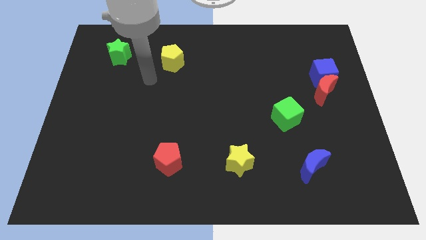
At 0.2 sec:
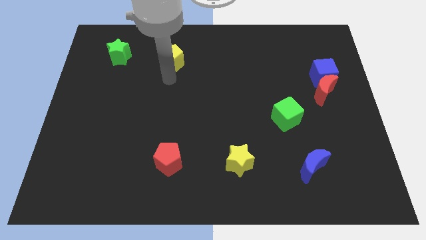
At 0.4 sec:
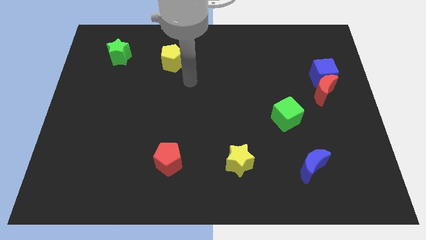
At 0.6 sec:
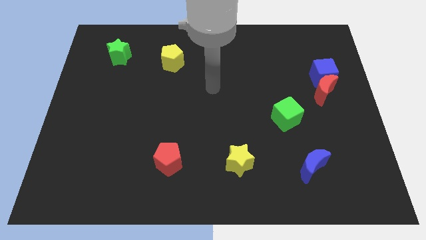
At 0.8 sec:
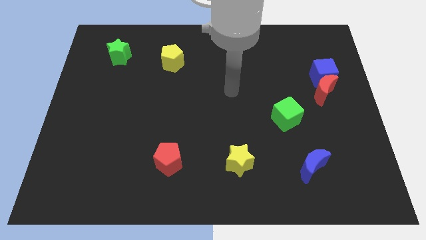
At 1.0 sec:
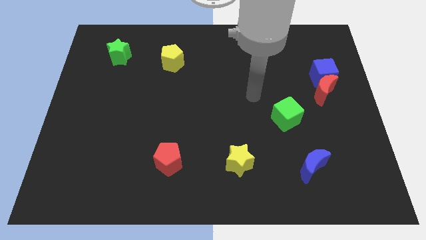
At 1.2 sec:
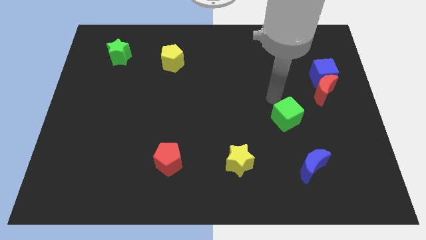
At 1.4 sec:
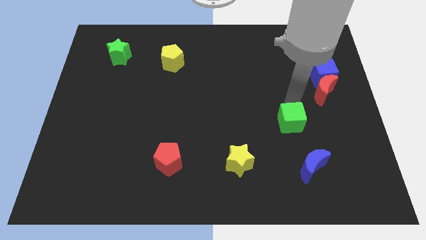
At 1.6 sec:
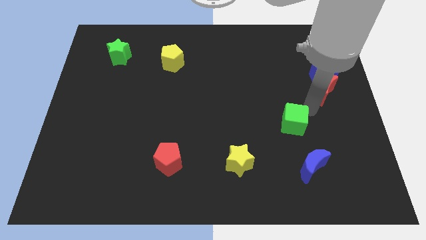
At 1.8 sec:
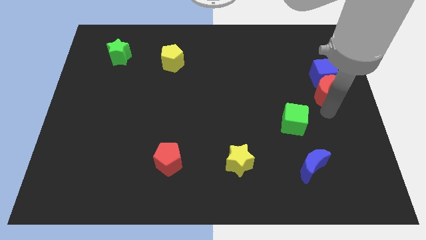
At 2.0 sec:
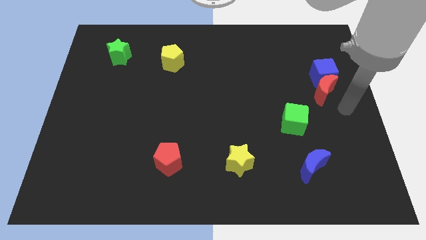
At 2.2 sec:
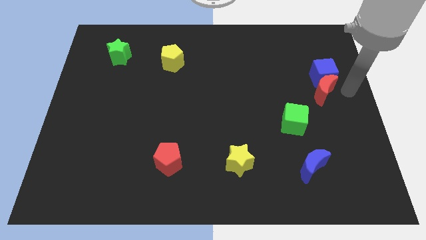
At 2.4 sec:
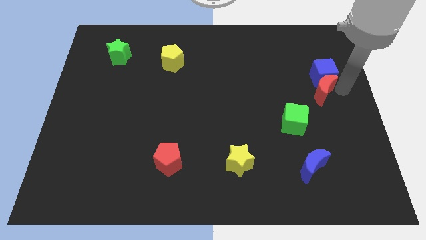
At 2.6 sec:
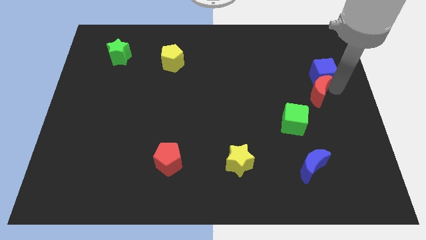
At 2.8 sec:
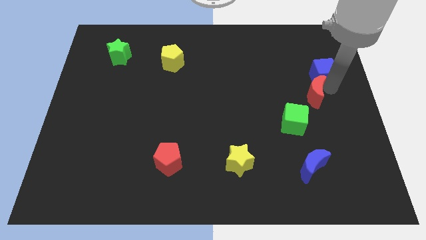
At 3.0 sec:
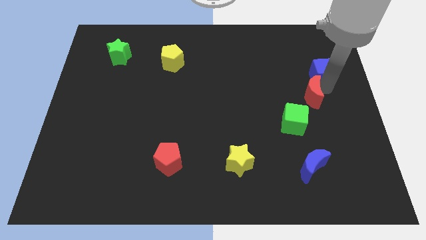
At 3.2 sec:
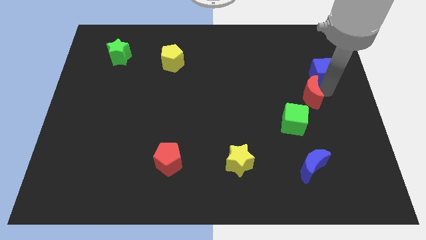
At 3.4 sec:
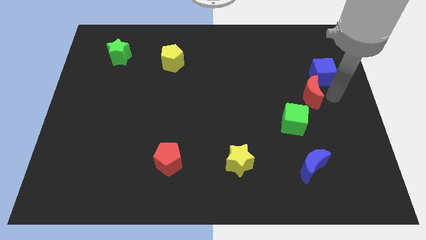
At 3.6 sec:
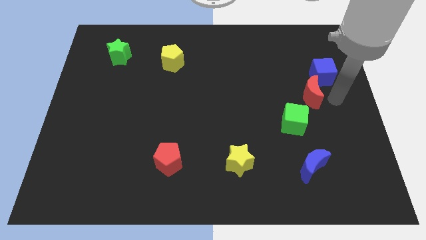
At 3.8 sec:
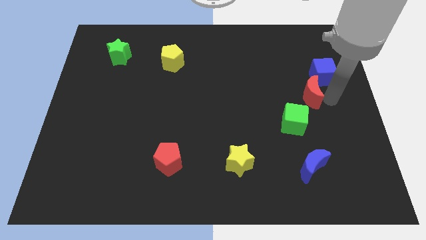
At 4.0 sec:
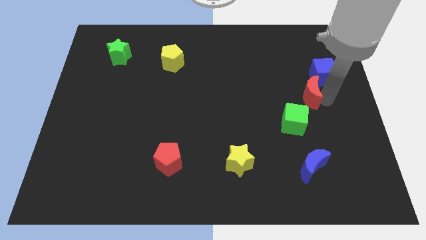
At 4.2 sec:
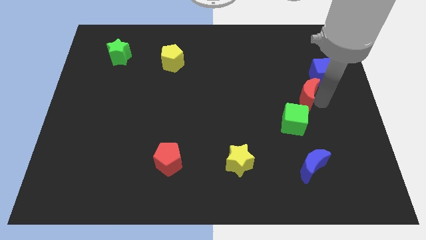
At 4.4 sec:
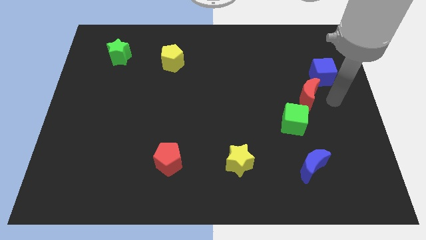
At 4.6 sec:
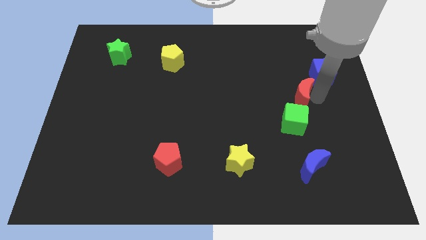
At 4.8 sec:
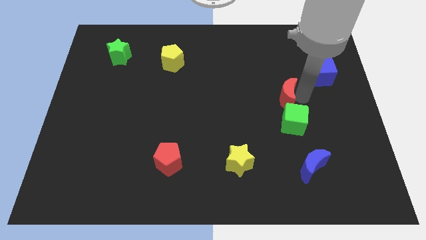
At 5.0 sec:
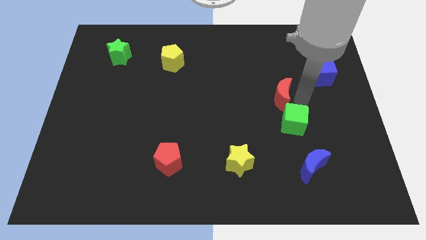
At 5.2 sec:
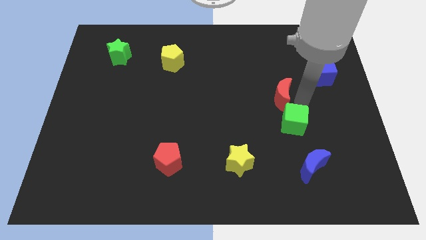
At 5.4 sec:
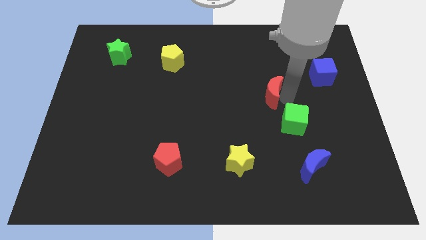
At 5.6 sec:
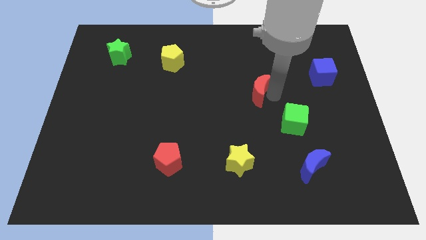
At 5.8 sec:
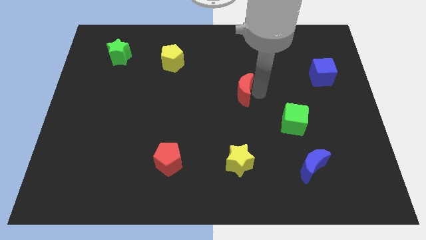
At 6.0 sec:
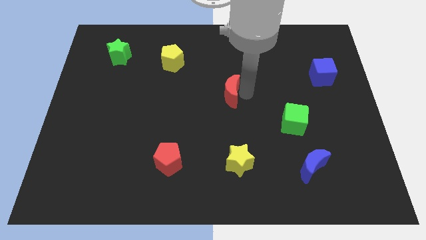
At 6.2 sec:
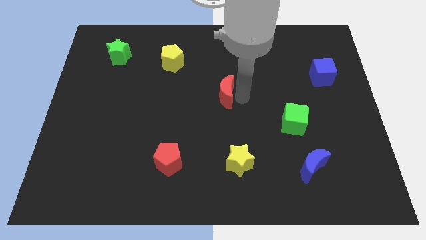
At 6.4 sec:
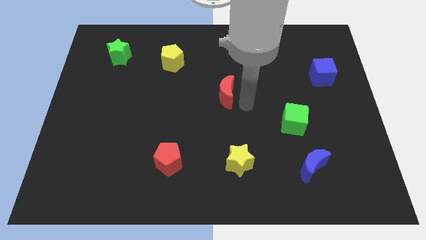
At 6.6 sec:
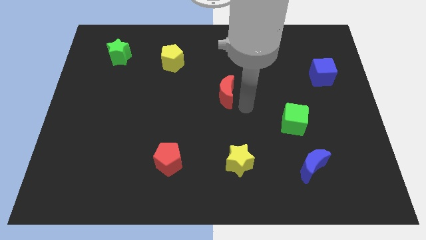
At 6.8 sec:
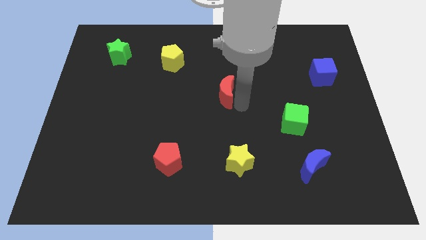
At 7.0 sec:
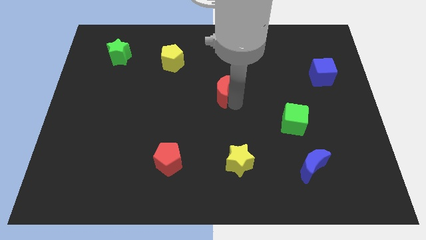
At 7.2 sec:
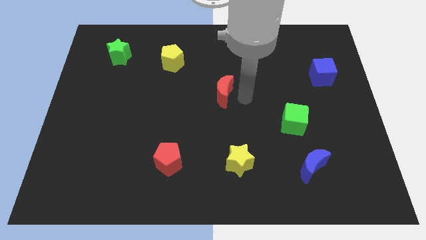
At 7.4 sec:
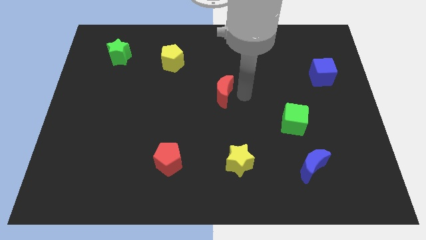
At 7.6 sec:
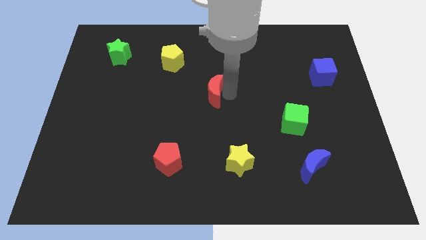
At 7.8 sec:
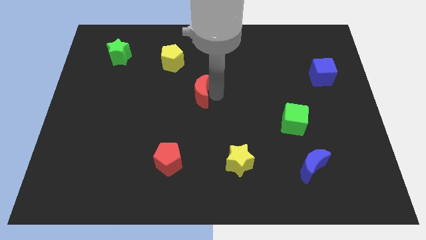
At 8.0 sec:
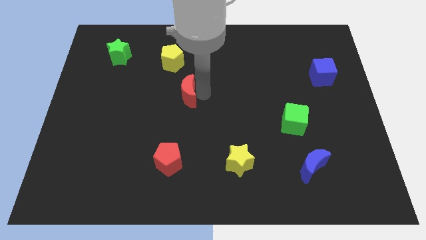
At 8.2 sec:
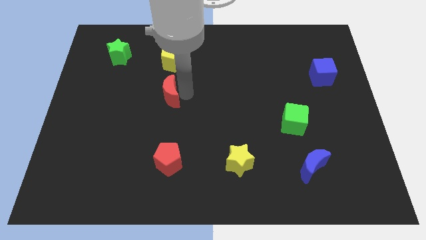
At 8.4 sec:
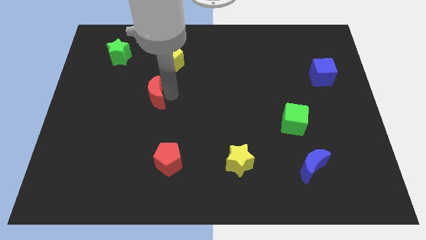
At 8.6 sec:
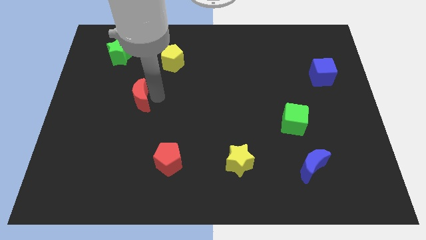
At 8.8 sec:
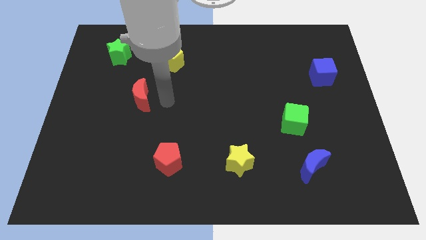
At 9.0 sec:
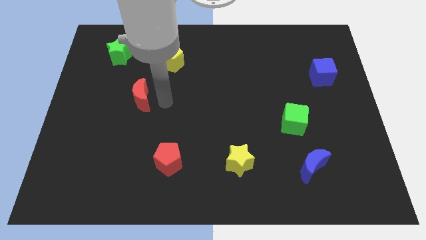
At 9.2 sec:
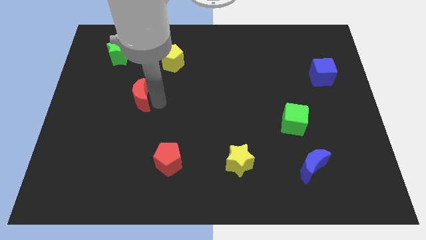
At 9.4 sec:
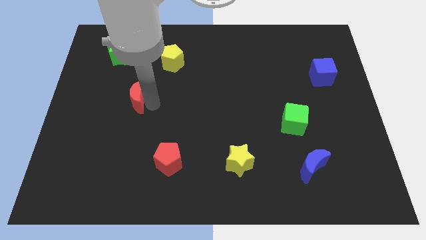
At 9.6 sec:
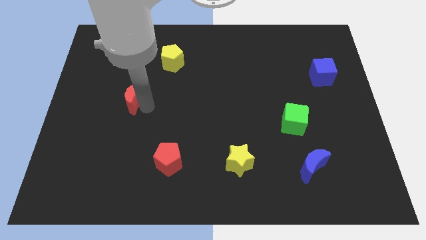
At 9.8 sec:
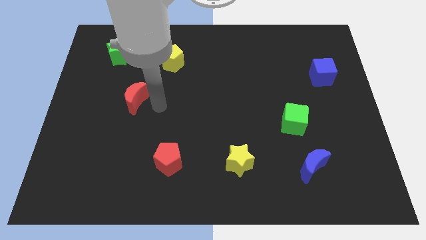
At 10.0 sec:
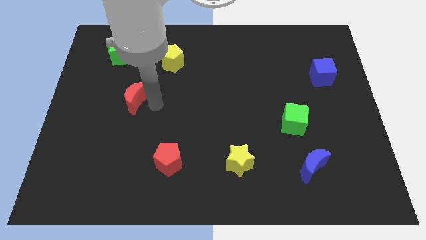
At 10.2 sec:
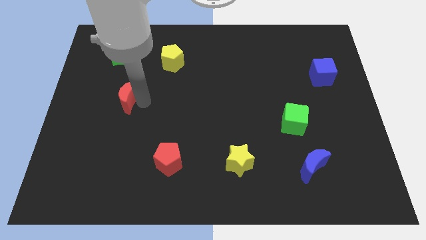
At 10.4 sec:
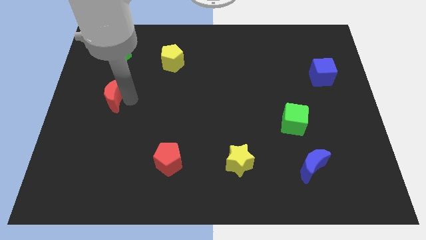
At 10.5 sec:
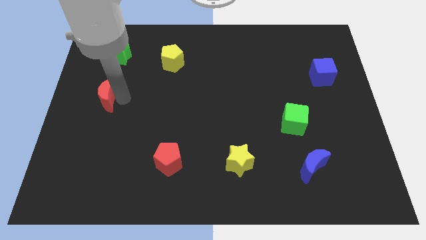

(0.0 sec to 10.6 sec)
move the red moon to the left side
